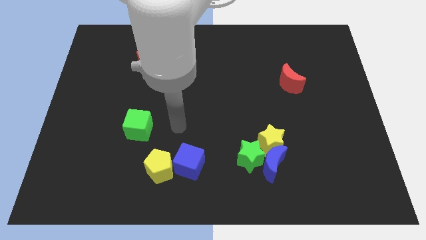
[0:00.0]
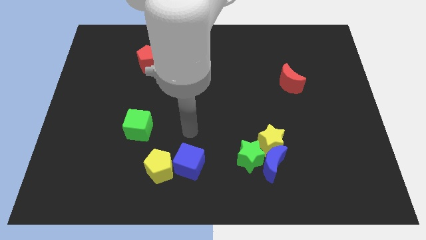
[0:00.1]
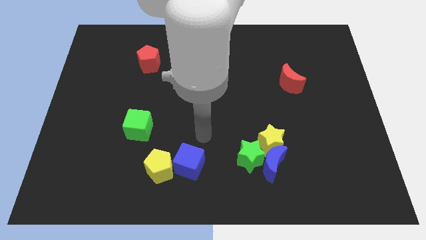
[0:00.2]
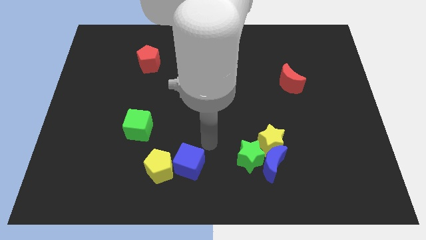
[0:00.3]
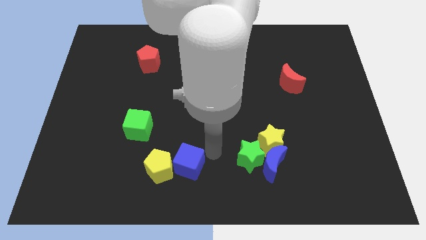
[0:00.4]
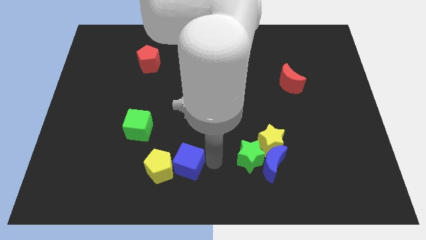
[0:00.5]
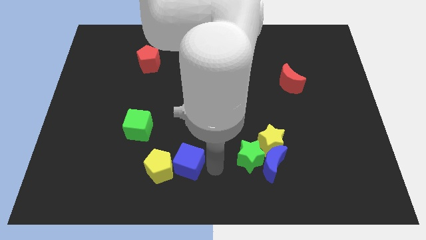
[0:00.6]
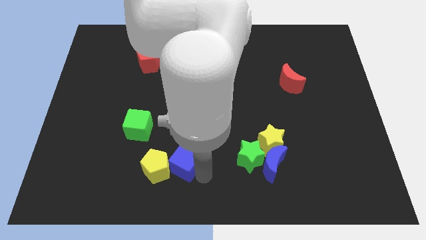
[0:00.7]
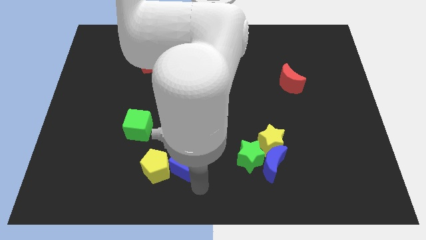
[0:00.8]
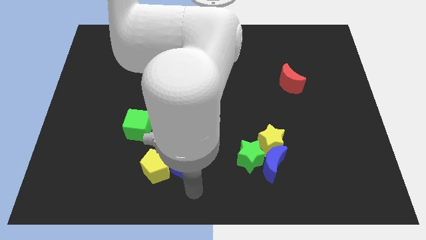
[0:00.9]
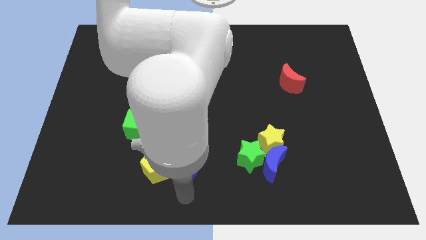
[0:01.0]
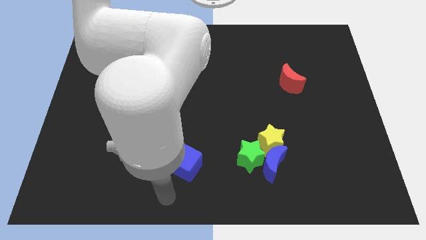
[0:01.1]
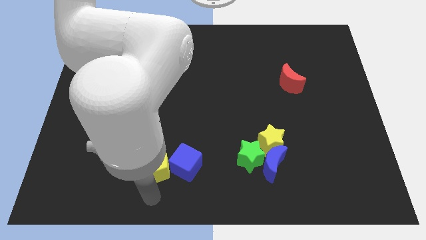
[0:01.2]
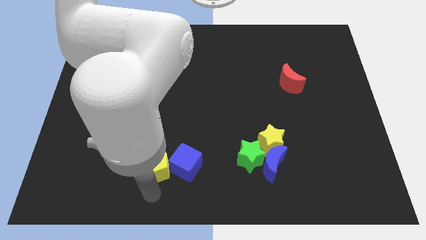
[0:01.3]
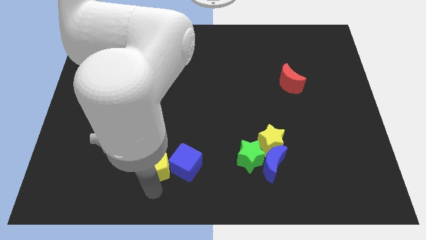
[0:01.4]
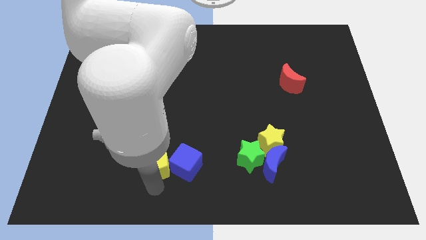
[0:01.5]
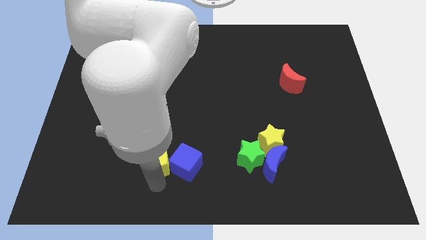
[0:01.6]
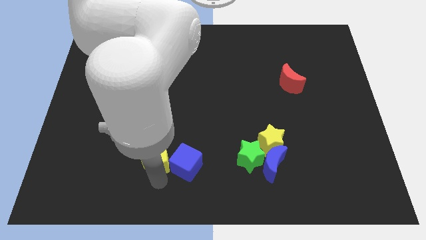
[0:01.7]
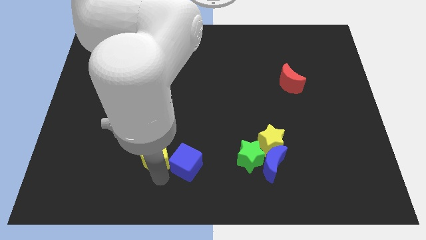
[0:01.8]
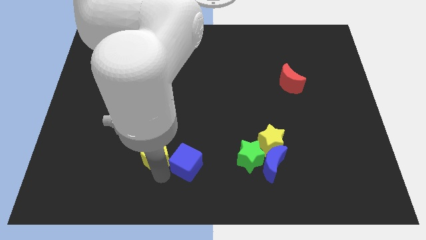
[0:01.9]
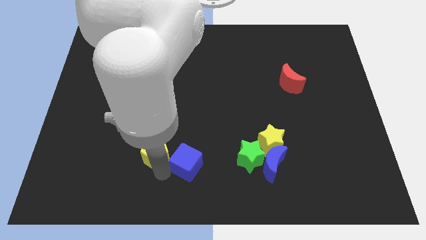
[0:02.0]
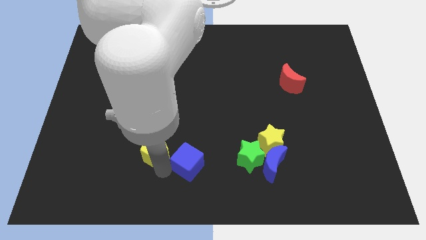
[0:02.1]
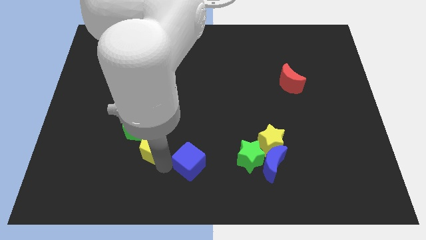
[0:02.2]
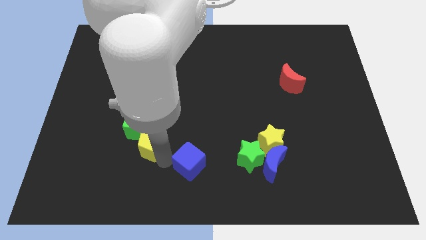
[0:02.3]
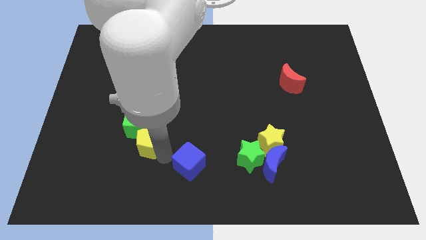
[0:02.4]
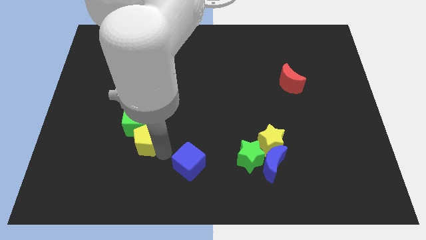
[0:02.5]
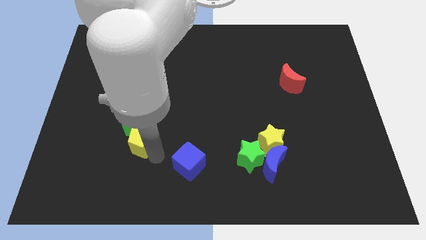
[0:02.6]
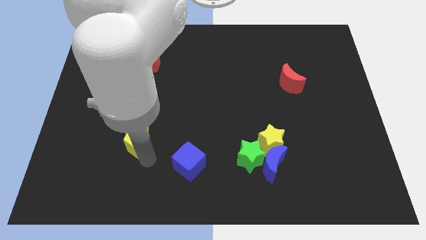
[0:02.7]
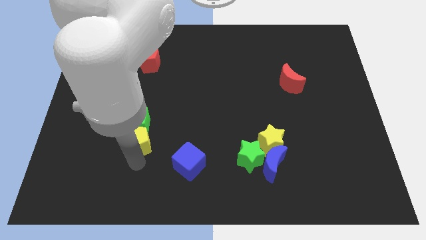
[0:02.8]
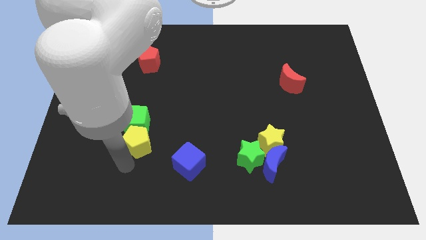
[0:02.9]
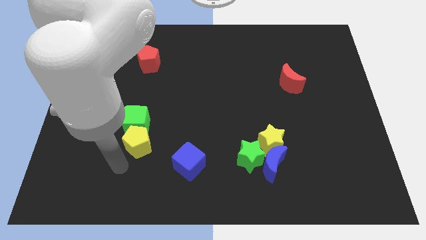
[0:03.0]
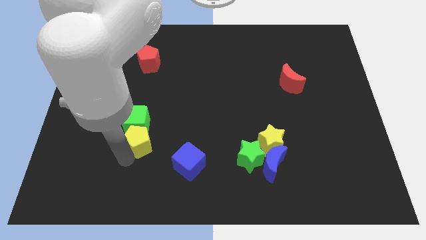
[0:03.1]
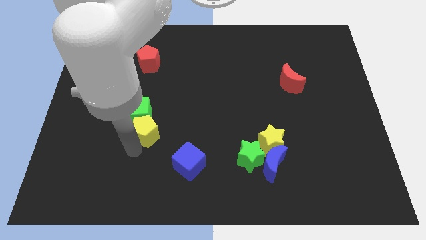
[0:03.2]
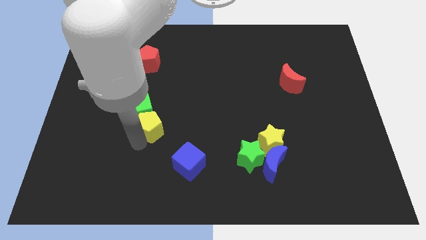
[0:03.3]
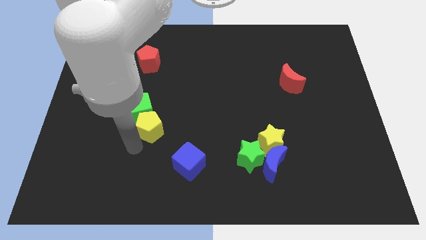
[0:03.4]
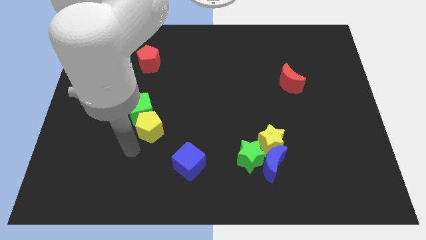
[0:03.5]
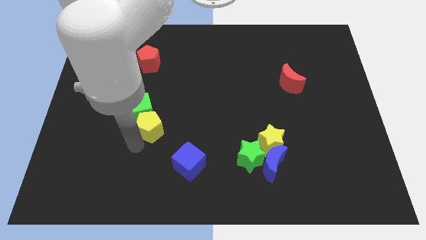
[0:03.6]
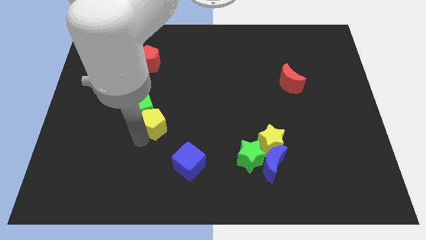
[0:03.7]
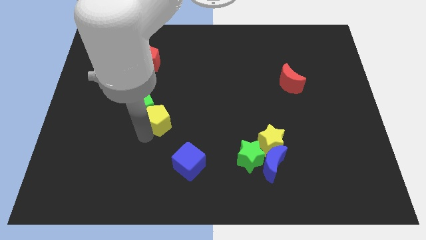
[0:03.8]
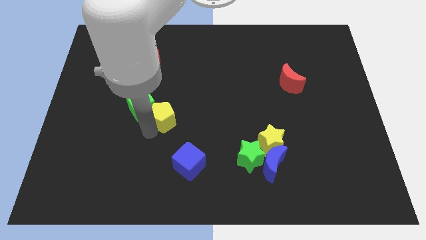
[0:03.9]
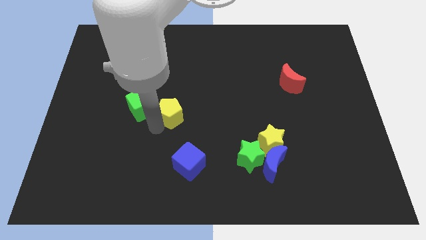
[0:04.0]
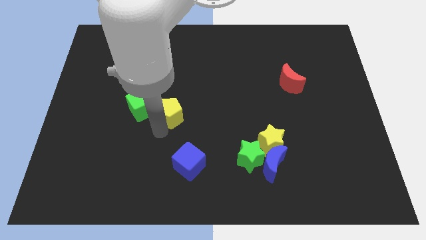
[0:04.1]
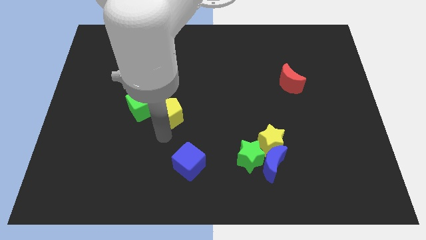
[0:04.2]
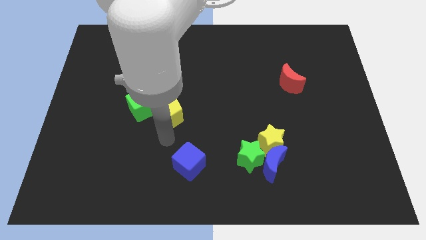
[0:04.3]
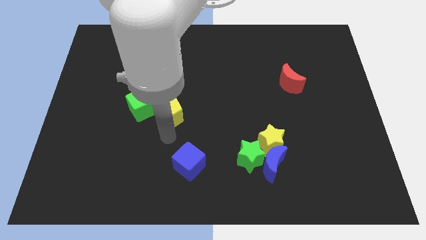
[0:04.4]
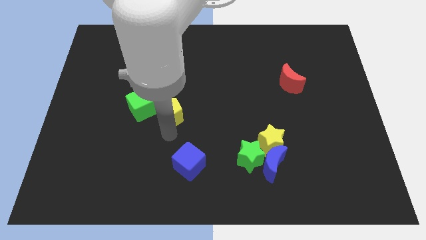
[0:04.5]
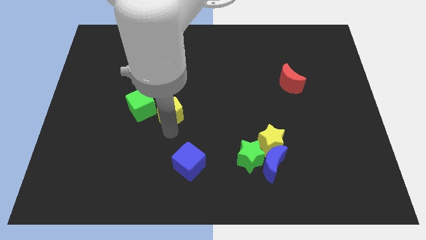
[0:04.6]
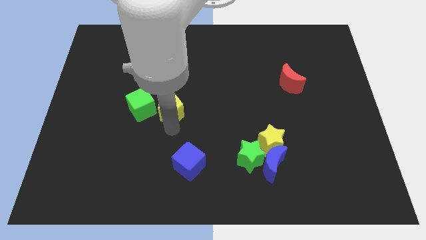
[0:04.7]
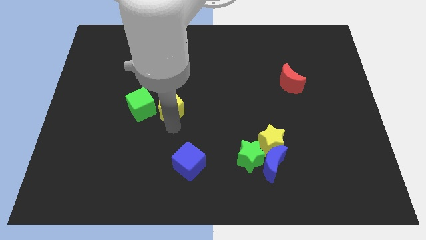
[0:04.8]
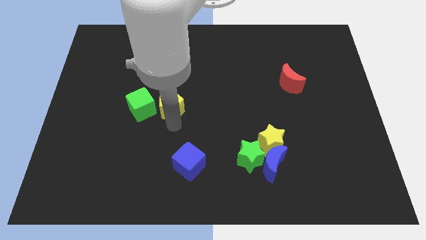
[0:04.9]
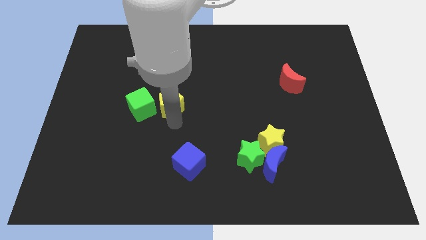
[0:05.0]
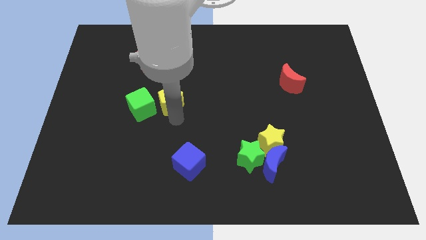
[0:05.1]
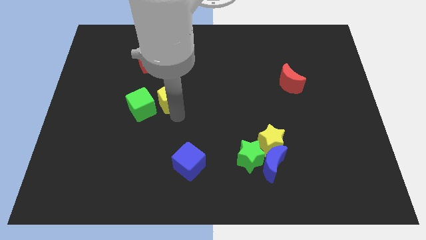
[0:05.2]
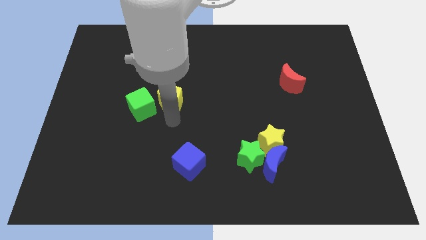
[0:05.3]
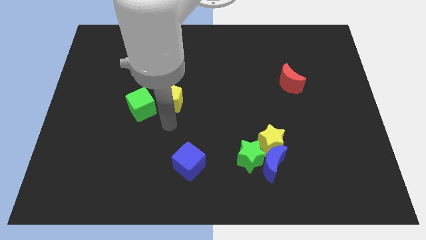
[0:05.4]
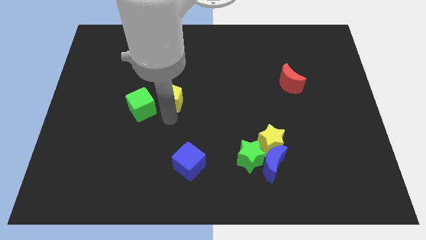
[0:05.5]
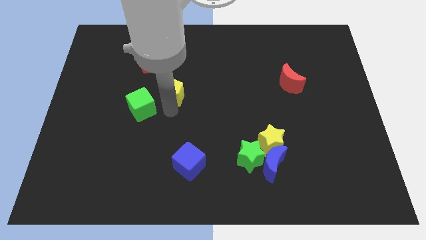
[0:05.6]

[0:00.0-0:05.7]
slide the yellow pentagon up

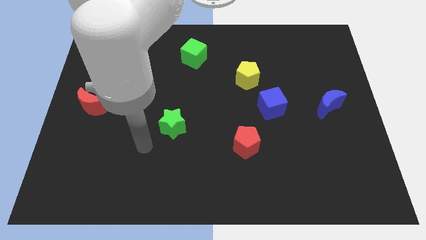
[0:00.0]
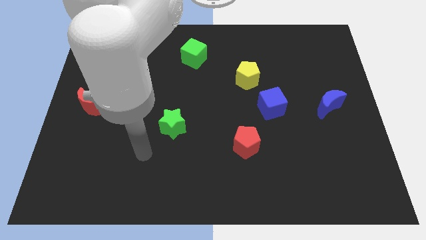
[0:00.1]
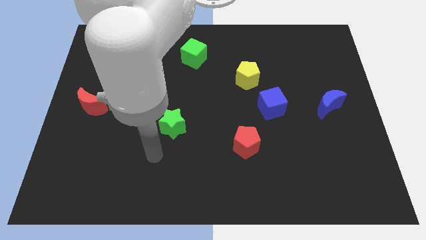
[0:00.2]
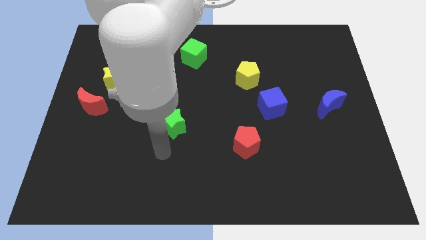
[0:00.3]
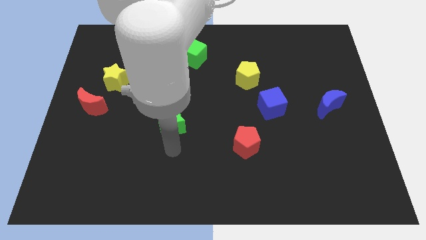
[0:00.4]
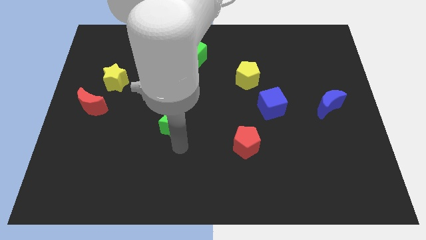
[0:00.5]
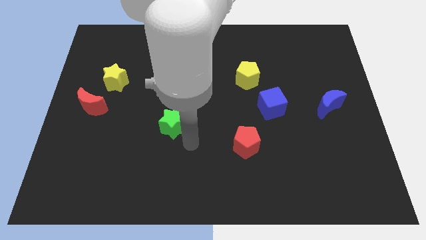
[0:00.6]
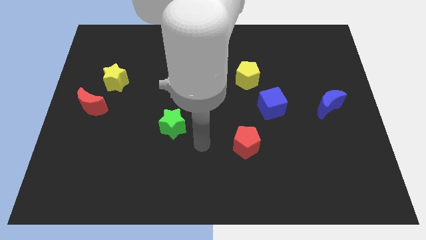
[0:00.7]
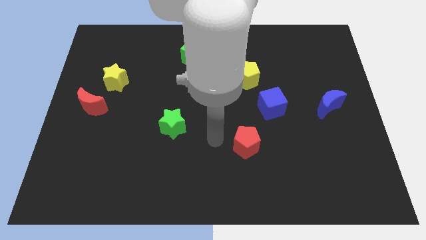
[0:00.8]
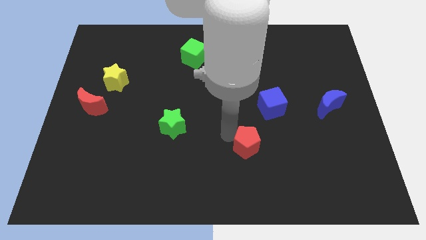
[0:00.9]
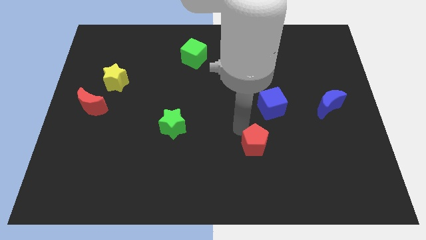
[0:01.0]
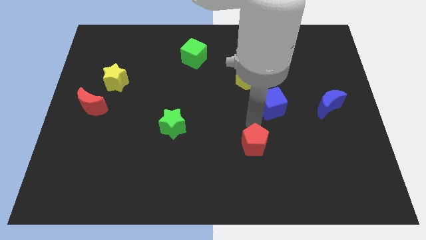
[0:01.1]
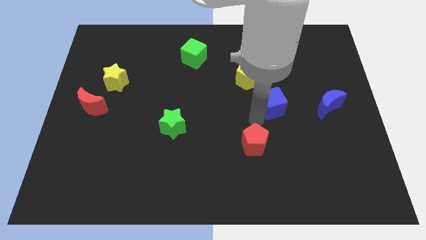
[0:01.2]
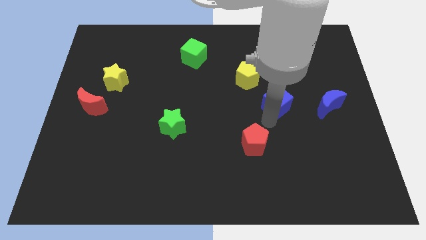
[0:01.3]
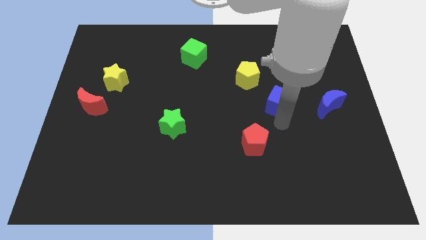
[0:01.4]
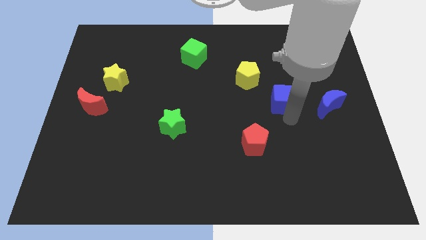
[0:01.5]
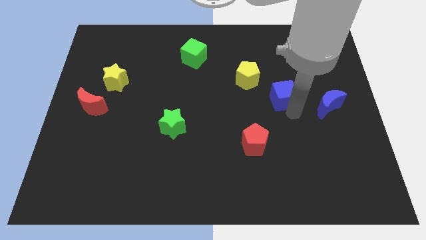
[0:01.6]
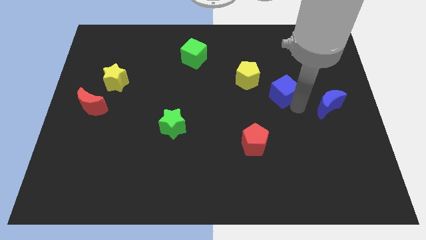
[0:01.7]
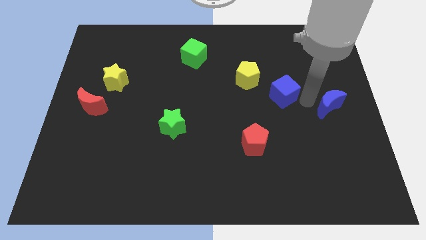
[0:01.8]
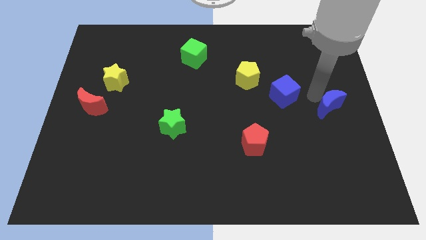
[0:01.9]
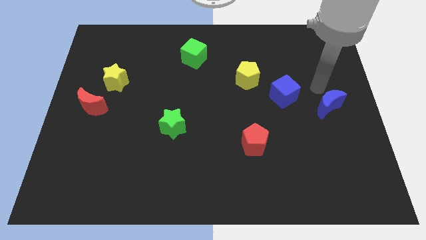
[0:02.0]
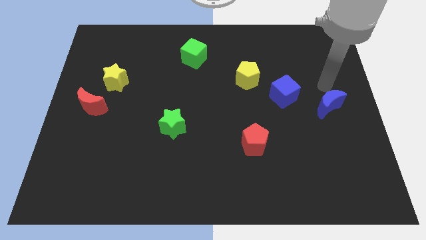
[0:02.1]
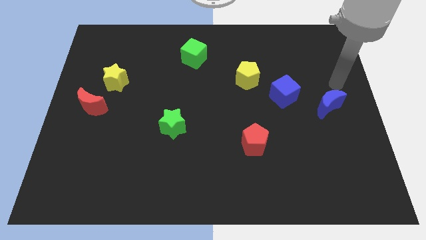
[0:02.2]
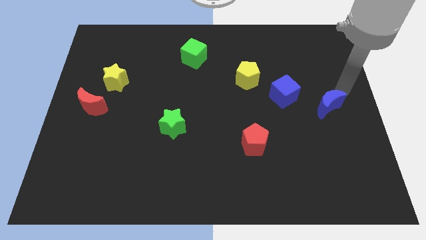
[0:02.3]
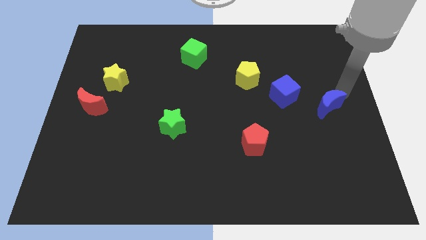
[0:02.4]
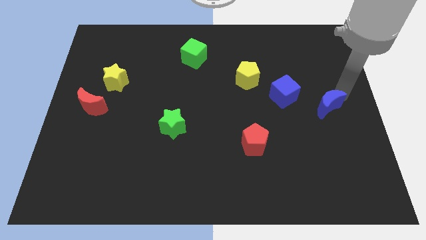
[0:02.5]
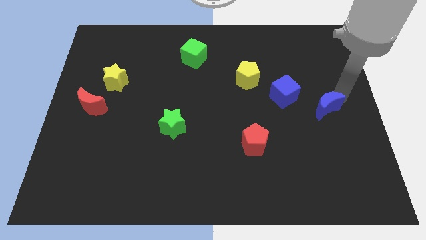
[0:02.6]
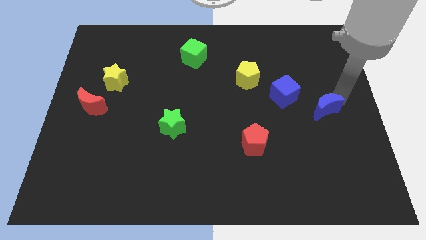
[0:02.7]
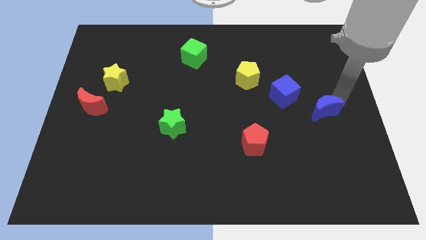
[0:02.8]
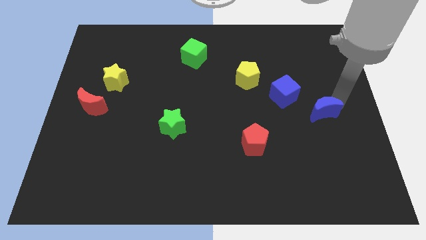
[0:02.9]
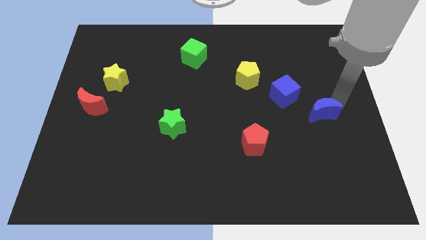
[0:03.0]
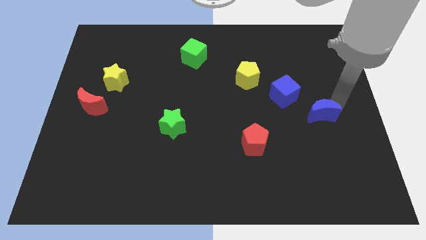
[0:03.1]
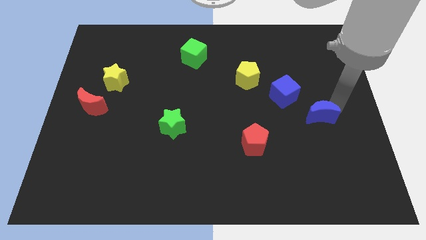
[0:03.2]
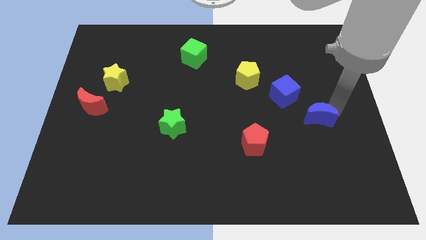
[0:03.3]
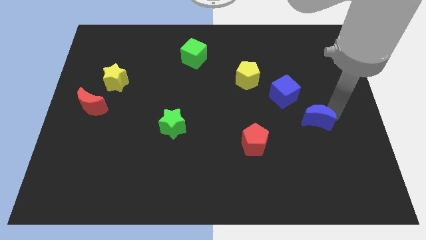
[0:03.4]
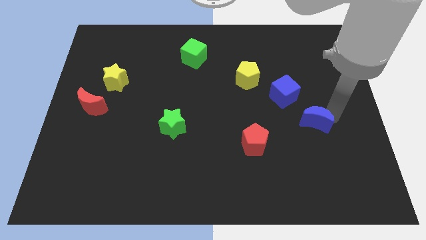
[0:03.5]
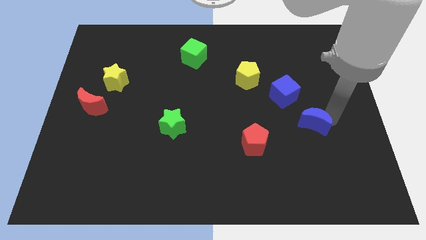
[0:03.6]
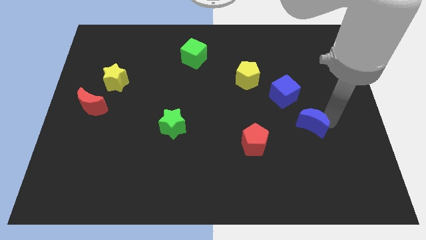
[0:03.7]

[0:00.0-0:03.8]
slightly push the blue moon downwards and left
